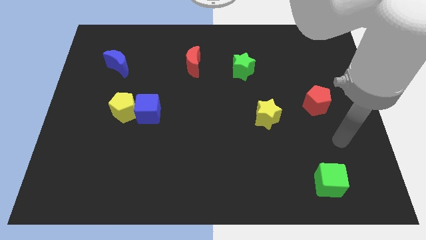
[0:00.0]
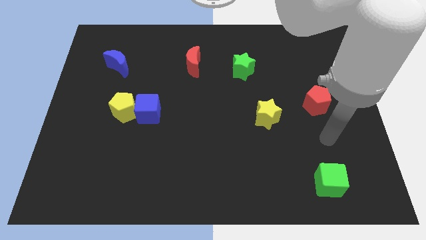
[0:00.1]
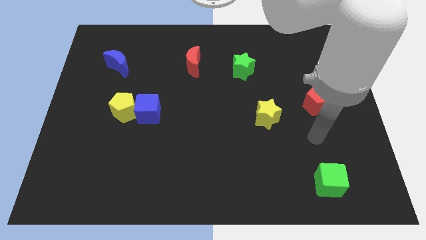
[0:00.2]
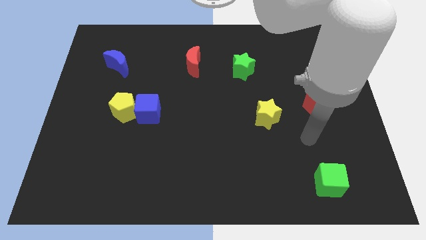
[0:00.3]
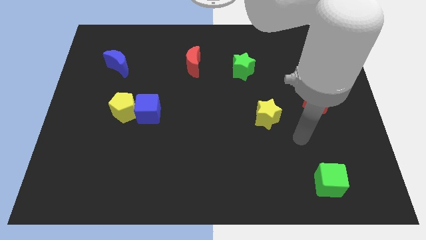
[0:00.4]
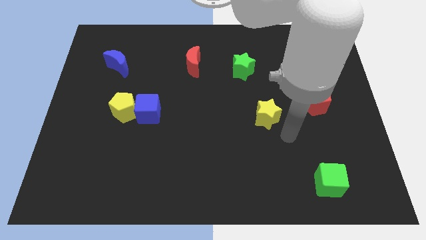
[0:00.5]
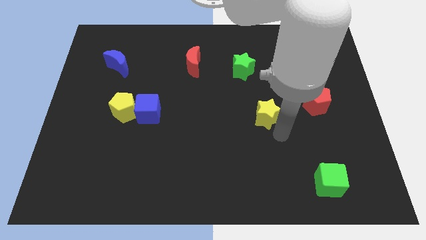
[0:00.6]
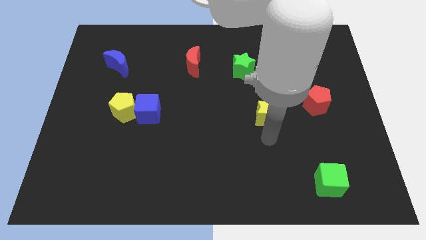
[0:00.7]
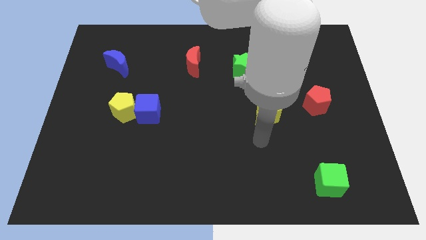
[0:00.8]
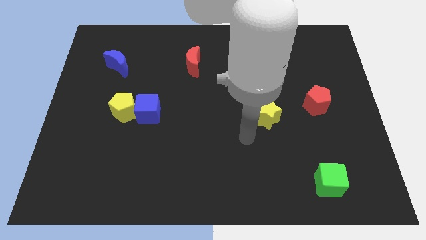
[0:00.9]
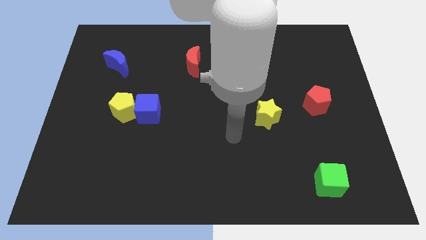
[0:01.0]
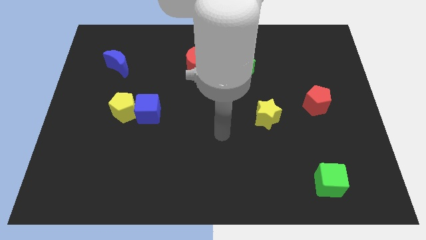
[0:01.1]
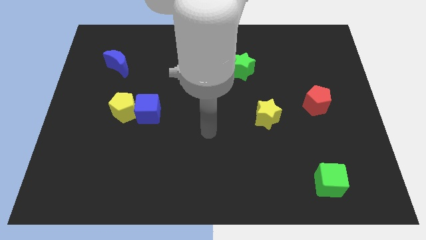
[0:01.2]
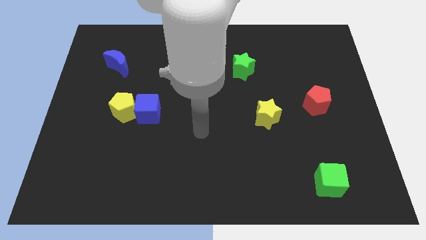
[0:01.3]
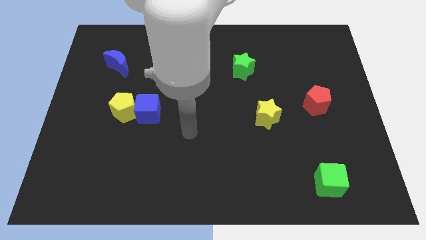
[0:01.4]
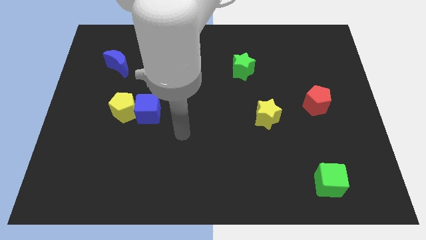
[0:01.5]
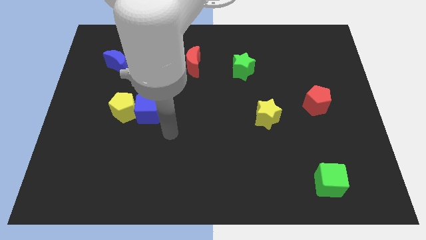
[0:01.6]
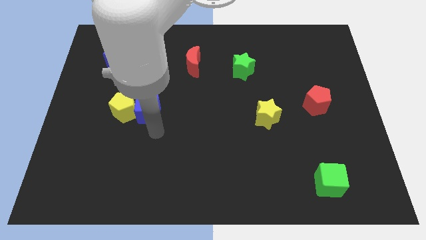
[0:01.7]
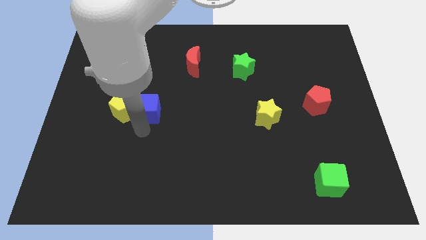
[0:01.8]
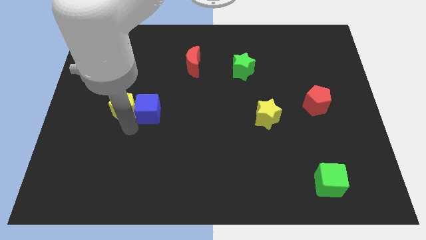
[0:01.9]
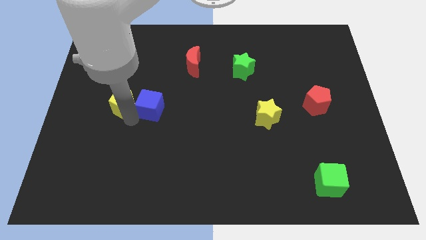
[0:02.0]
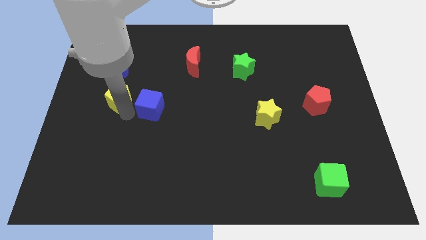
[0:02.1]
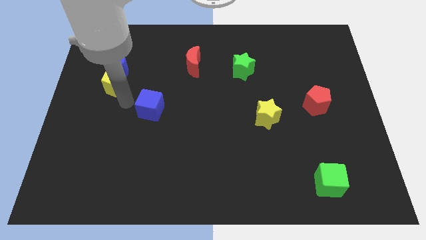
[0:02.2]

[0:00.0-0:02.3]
pull the blue cube apart from the yellow pentagon

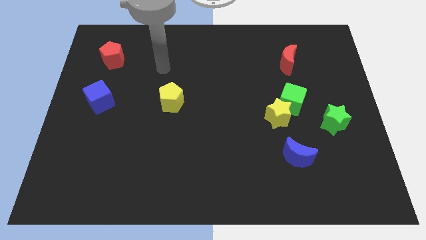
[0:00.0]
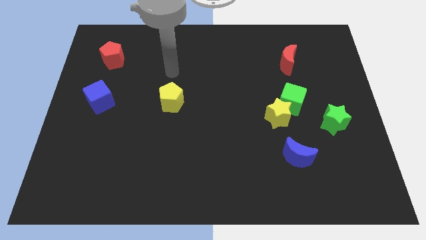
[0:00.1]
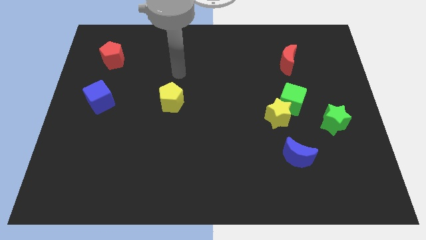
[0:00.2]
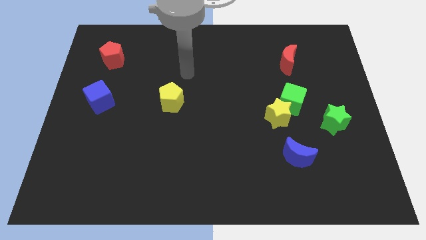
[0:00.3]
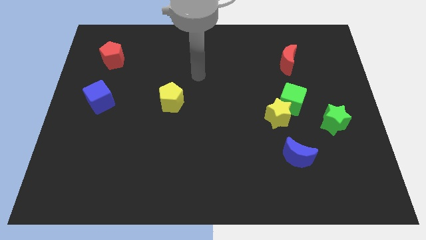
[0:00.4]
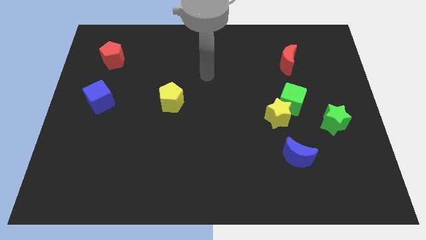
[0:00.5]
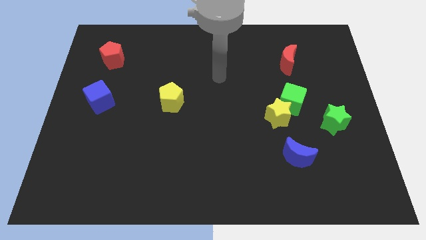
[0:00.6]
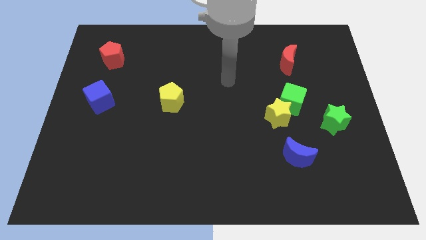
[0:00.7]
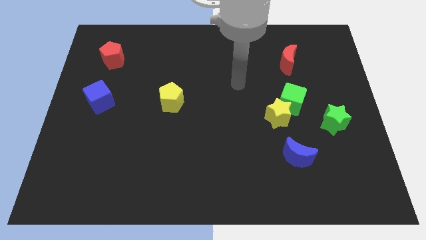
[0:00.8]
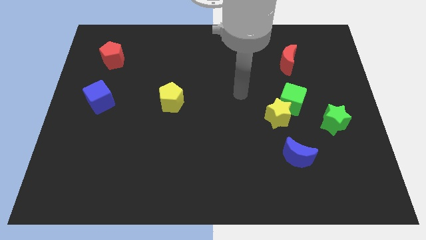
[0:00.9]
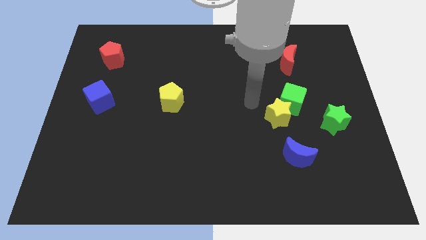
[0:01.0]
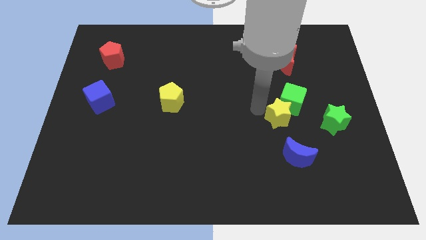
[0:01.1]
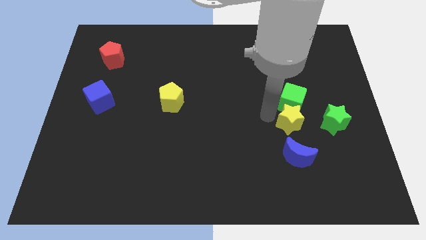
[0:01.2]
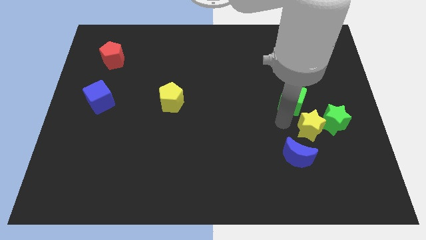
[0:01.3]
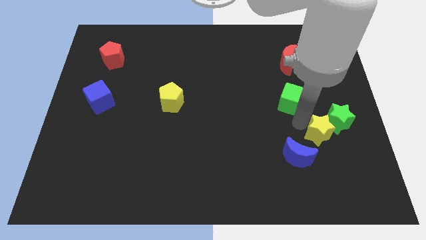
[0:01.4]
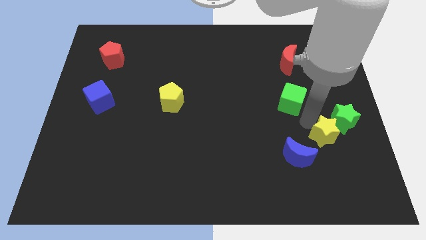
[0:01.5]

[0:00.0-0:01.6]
move the green cube away from the yellow star

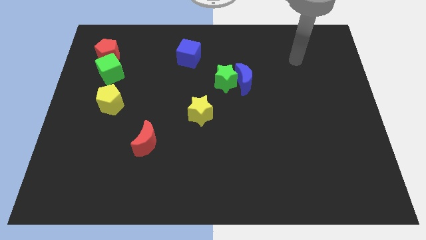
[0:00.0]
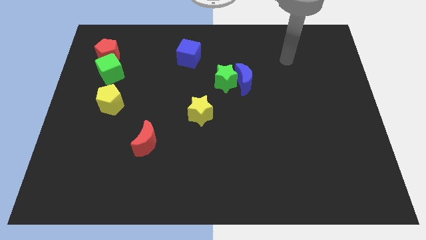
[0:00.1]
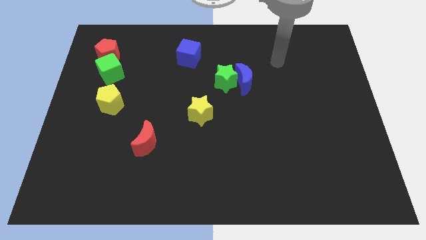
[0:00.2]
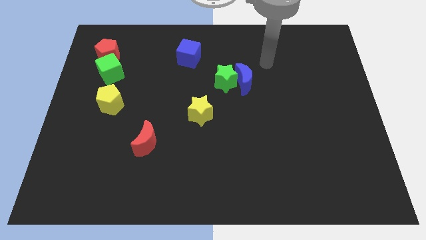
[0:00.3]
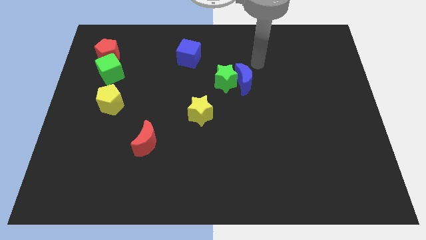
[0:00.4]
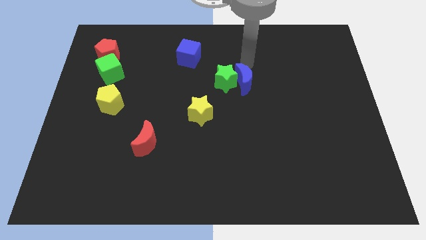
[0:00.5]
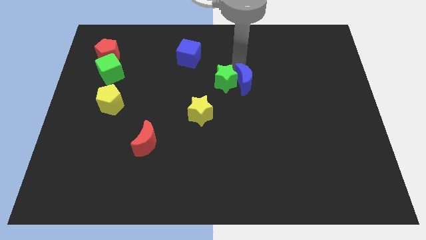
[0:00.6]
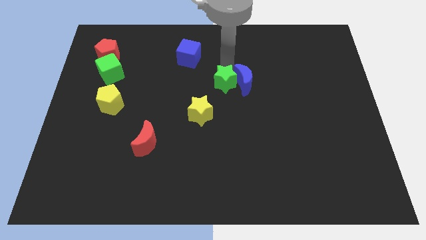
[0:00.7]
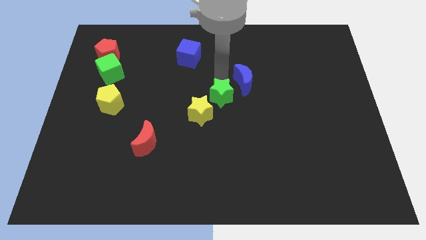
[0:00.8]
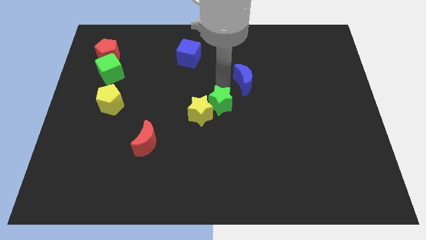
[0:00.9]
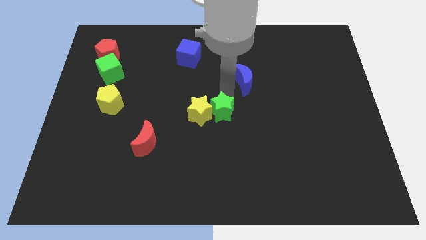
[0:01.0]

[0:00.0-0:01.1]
move the blue moon away from the green star

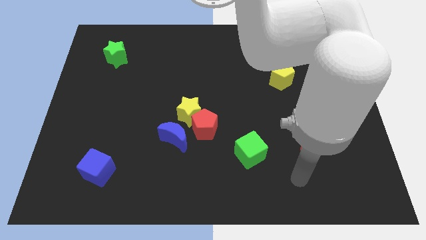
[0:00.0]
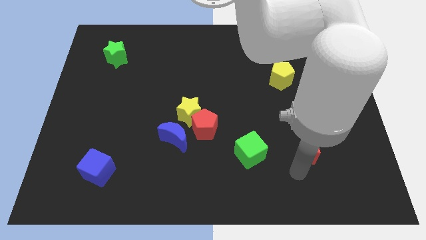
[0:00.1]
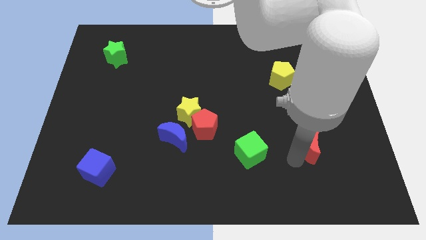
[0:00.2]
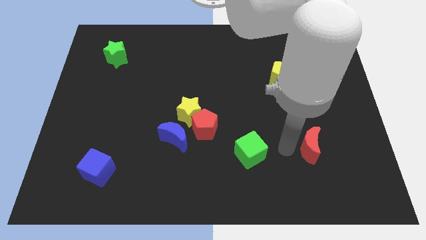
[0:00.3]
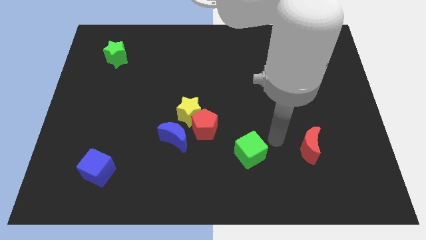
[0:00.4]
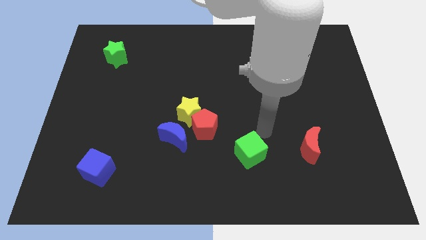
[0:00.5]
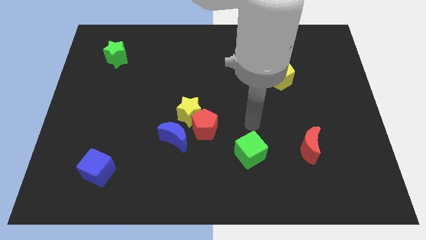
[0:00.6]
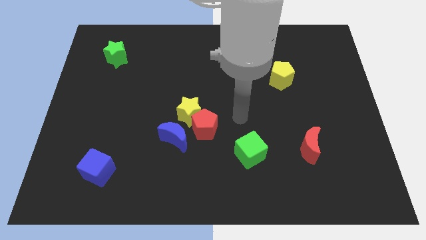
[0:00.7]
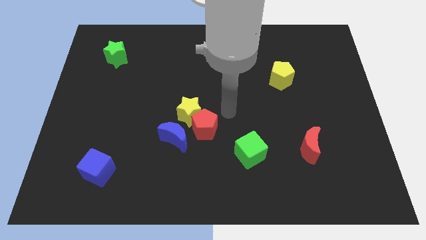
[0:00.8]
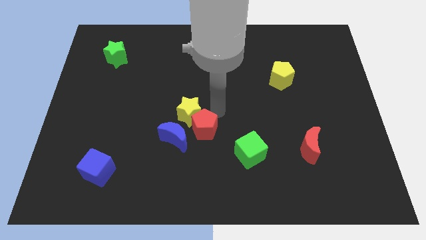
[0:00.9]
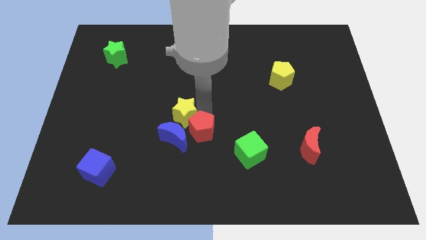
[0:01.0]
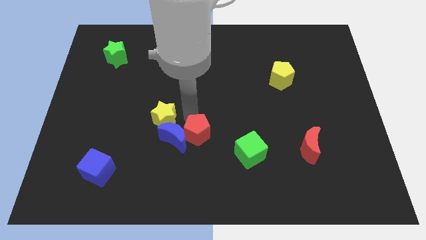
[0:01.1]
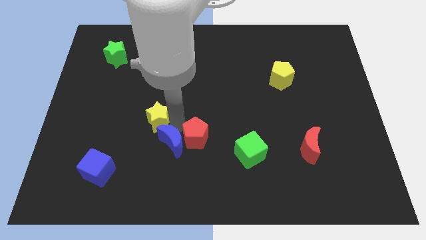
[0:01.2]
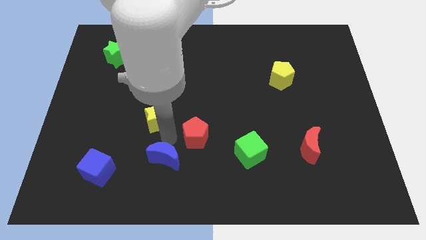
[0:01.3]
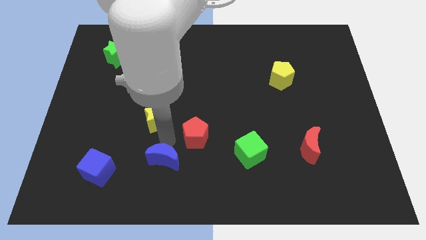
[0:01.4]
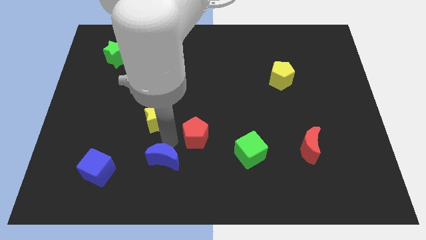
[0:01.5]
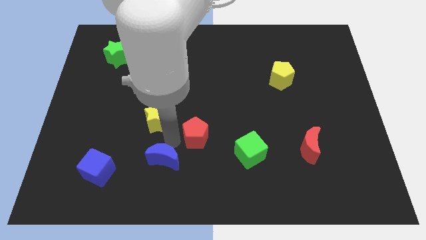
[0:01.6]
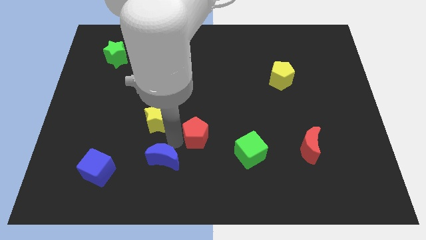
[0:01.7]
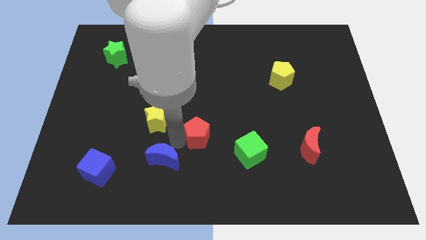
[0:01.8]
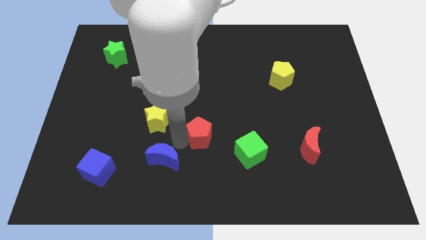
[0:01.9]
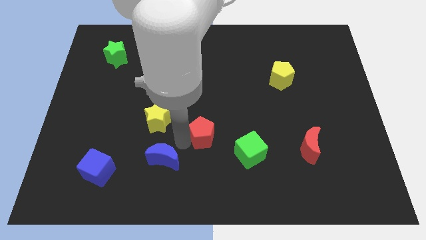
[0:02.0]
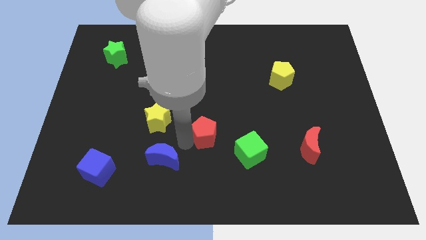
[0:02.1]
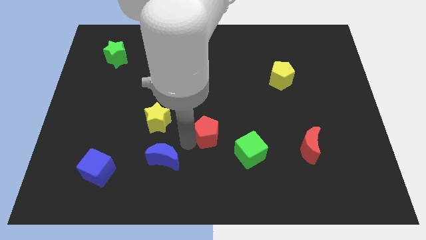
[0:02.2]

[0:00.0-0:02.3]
separate the red pentagon from the yellow star and blue moon

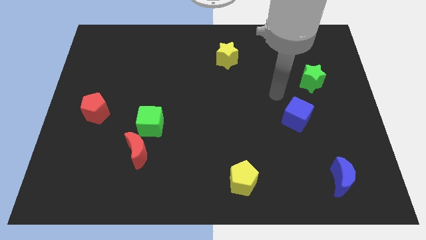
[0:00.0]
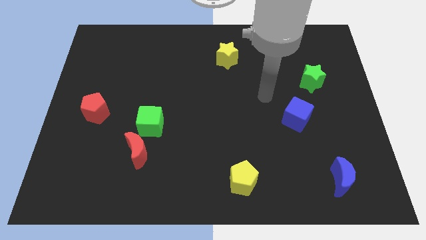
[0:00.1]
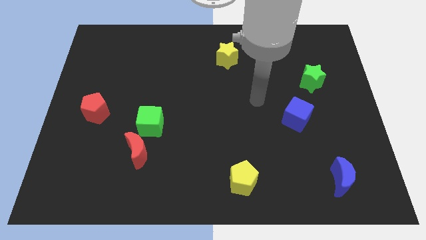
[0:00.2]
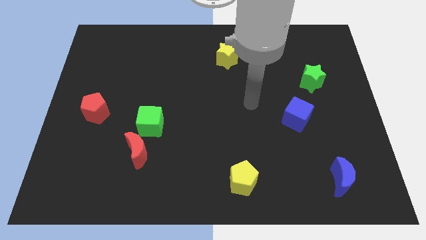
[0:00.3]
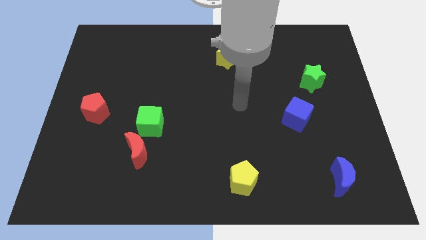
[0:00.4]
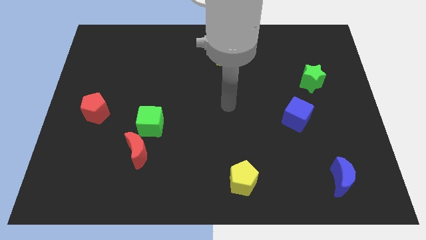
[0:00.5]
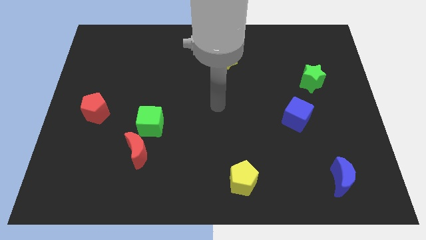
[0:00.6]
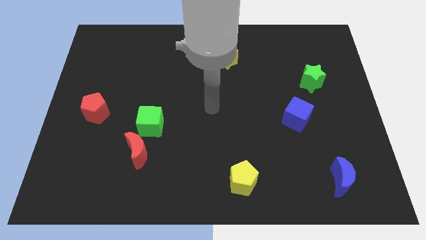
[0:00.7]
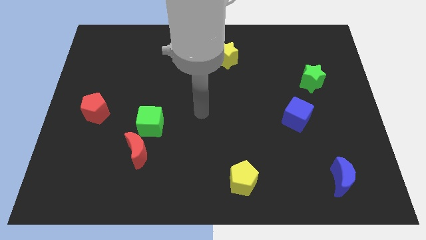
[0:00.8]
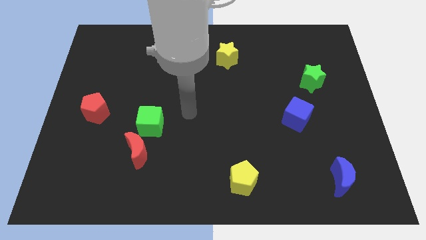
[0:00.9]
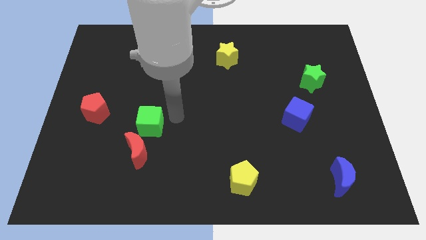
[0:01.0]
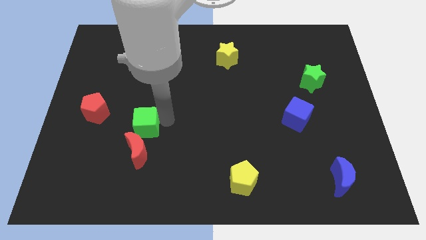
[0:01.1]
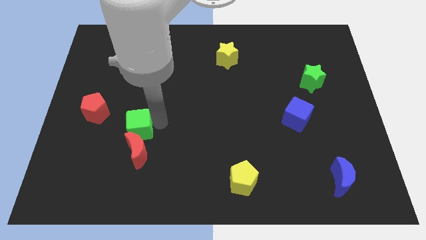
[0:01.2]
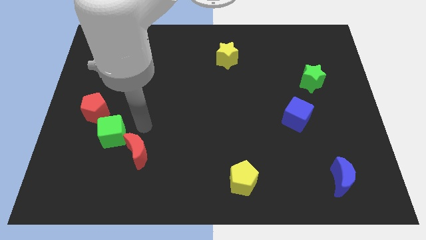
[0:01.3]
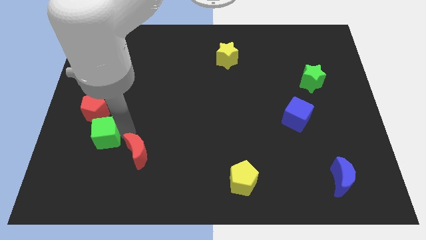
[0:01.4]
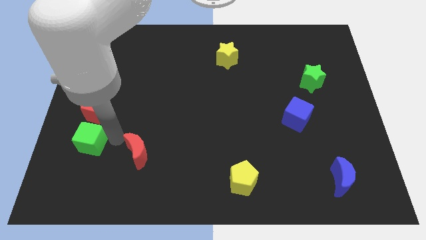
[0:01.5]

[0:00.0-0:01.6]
separate the red moon from the green cube

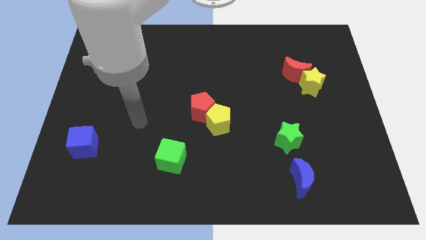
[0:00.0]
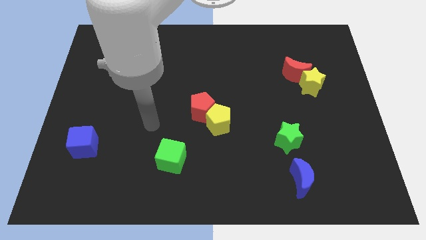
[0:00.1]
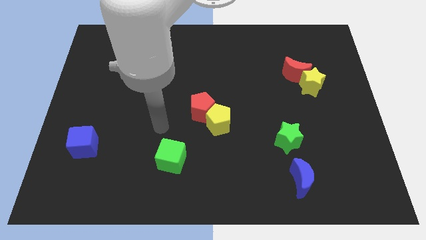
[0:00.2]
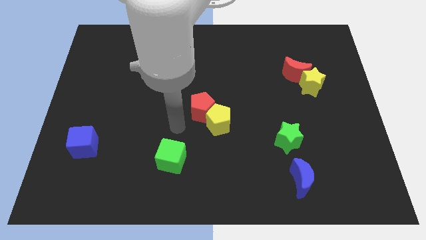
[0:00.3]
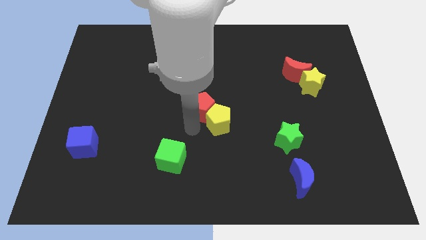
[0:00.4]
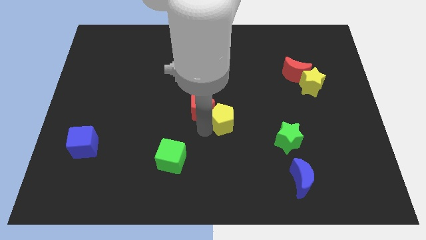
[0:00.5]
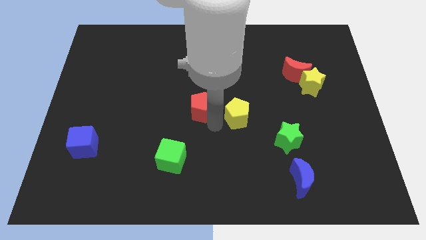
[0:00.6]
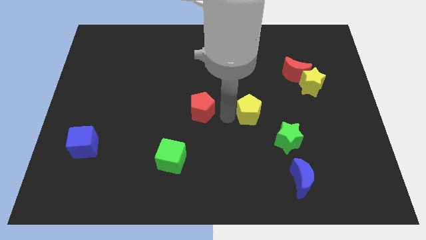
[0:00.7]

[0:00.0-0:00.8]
separate the red pentagon from the yellow pentagon
